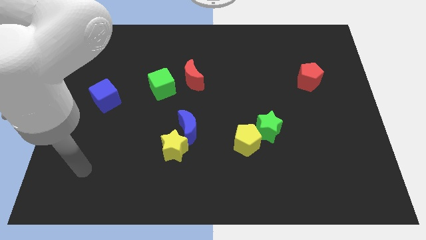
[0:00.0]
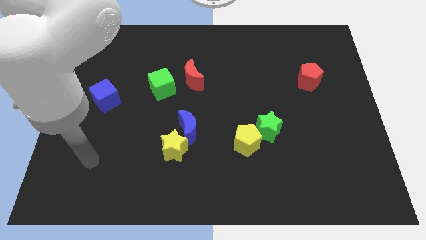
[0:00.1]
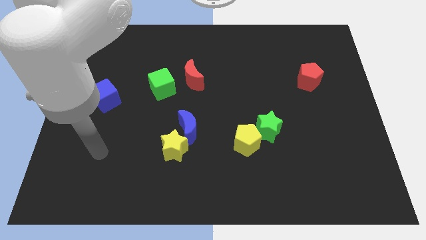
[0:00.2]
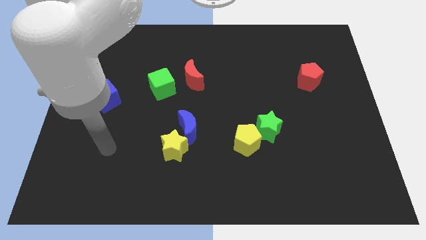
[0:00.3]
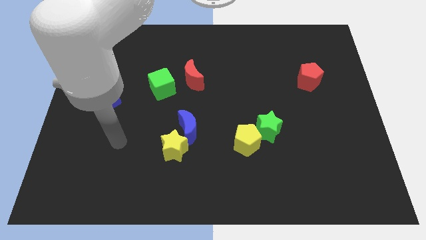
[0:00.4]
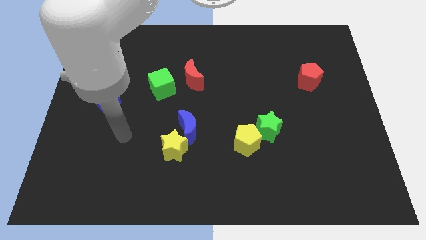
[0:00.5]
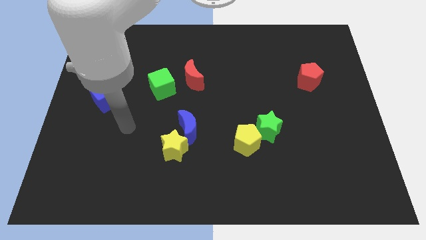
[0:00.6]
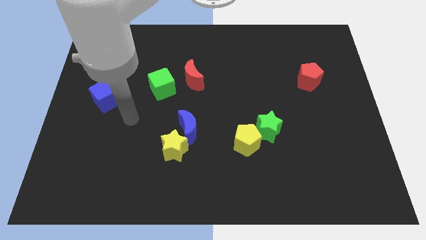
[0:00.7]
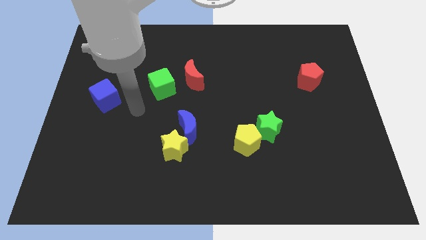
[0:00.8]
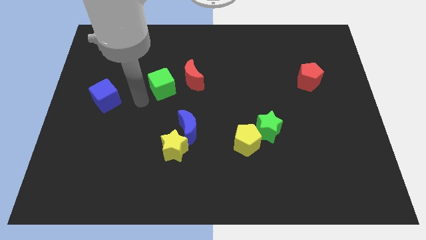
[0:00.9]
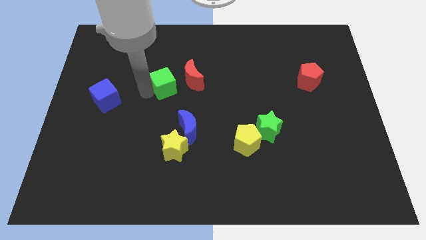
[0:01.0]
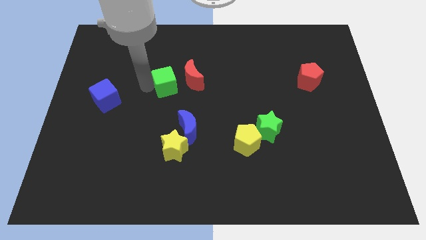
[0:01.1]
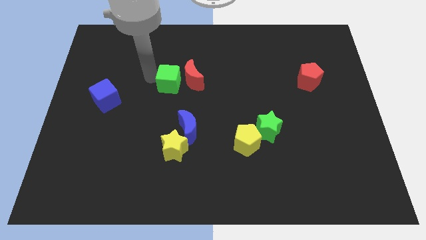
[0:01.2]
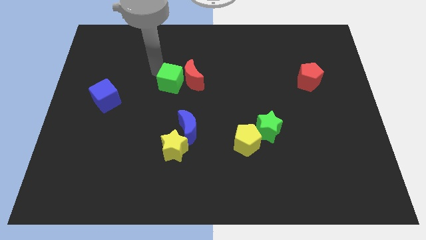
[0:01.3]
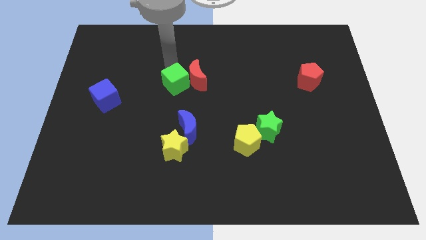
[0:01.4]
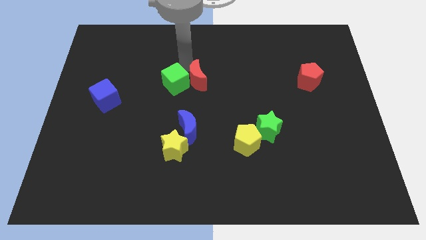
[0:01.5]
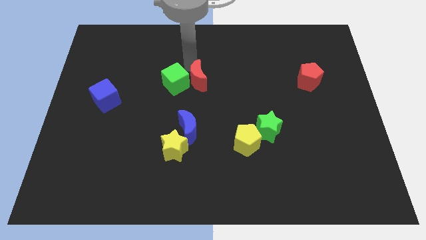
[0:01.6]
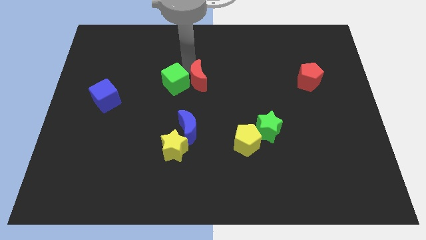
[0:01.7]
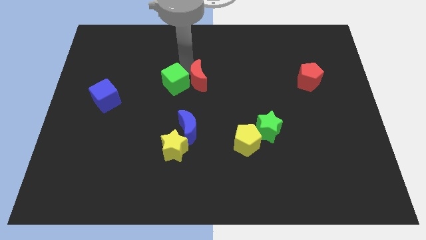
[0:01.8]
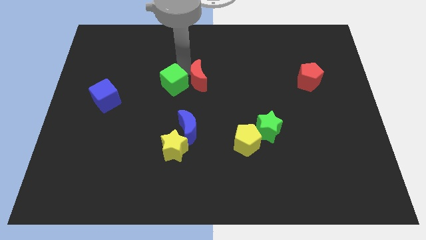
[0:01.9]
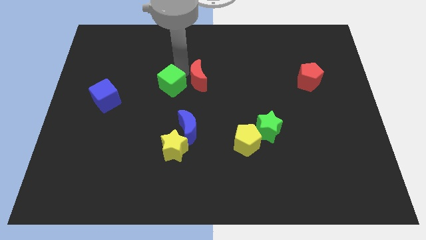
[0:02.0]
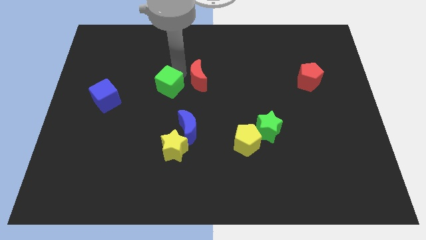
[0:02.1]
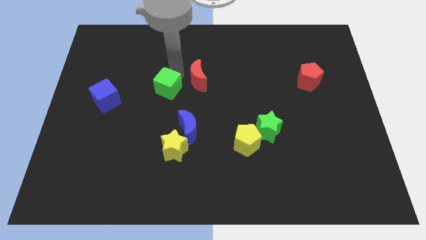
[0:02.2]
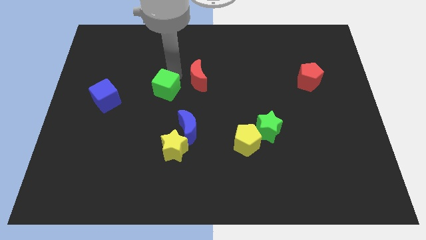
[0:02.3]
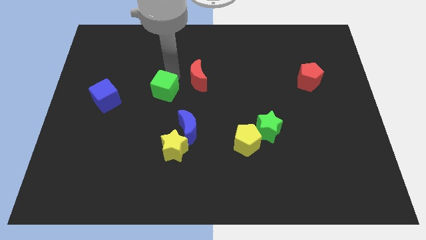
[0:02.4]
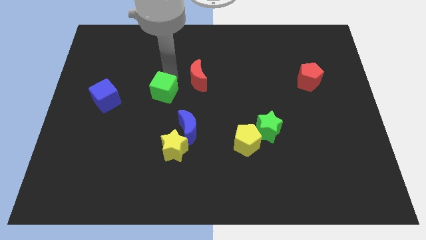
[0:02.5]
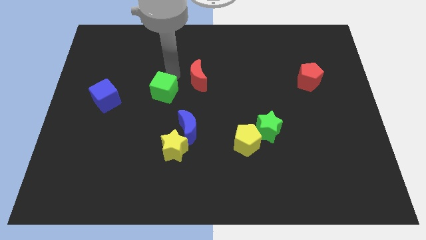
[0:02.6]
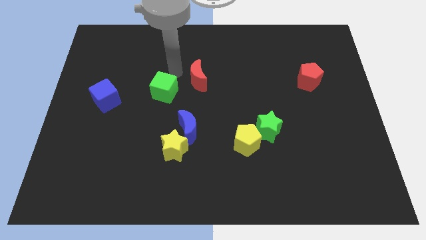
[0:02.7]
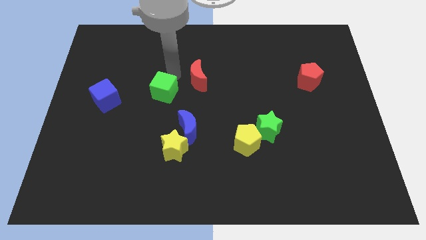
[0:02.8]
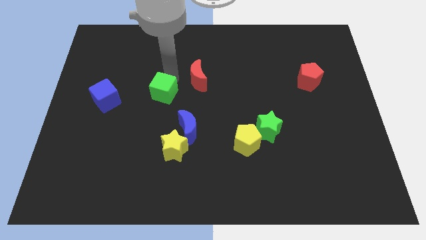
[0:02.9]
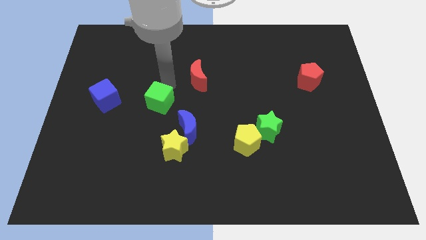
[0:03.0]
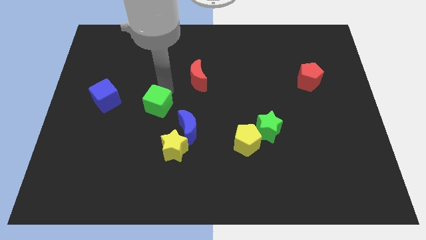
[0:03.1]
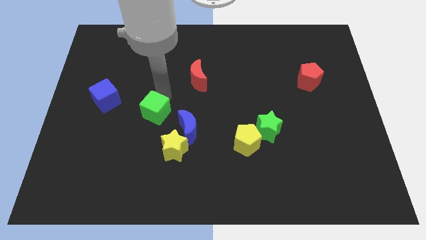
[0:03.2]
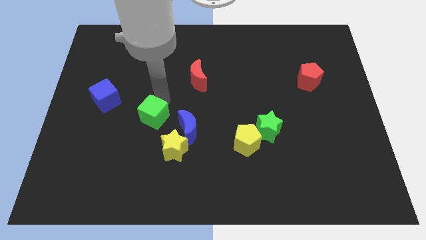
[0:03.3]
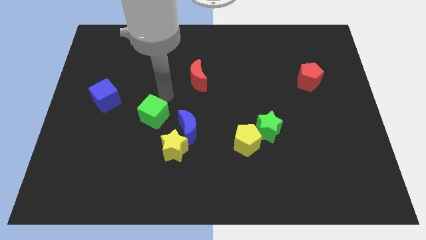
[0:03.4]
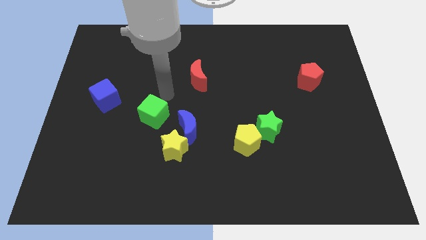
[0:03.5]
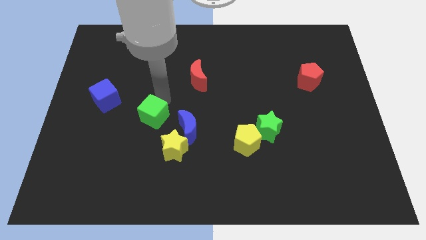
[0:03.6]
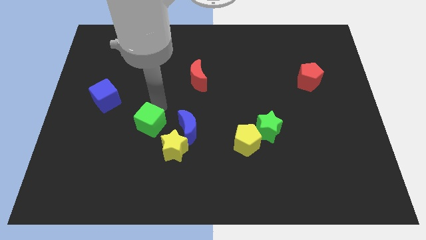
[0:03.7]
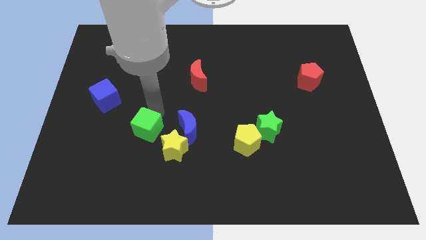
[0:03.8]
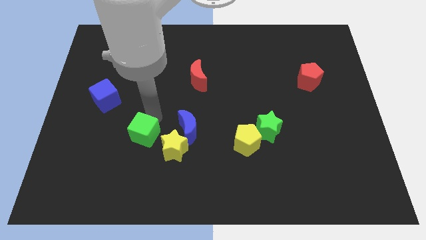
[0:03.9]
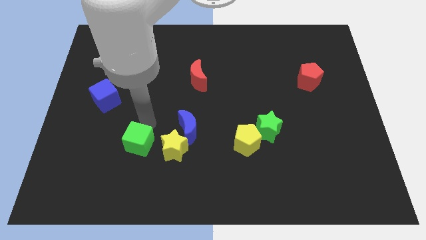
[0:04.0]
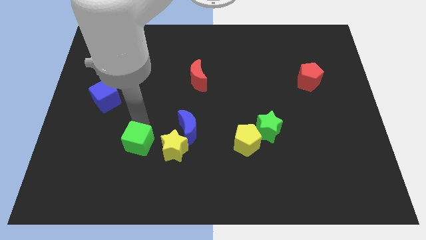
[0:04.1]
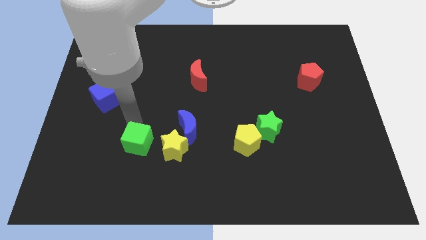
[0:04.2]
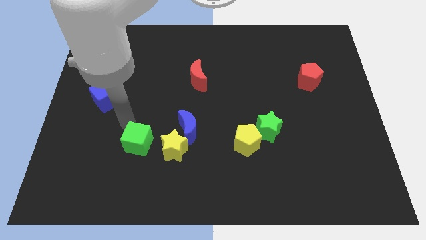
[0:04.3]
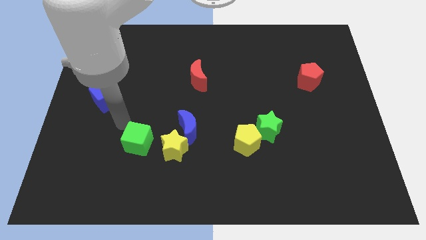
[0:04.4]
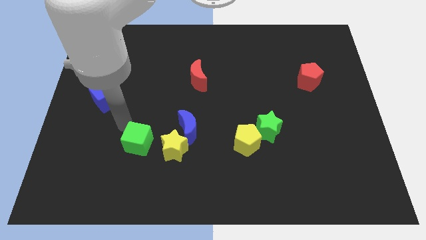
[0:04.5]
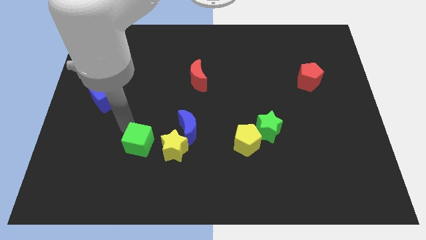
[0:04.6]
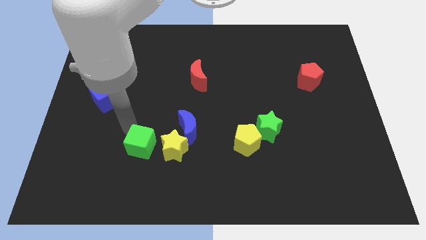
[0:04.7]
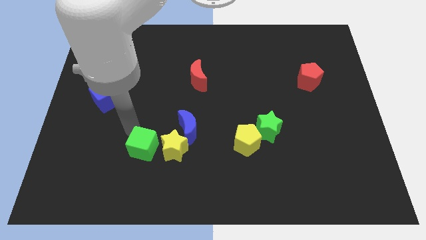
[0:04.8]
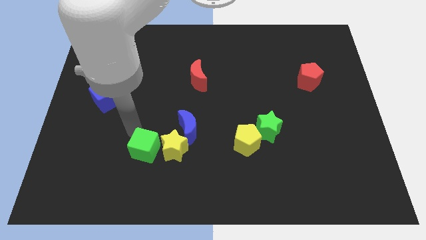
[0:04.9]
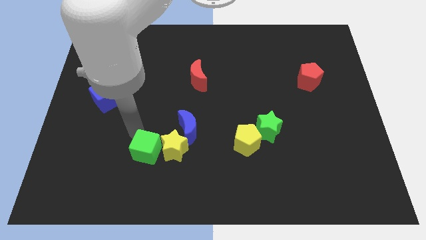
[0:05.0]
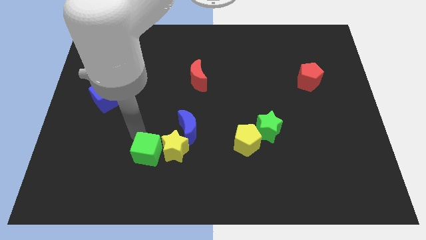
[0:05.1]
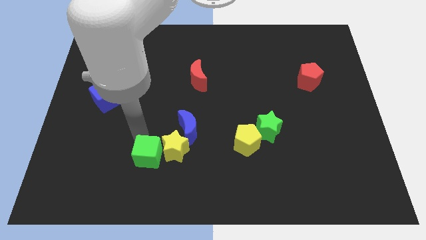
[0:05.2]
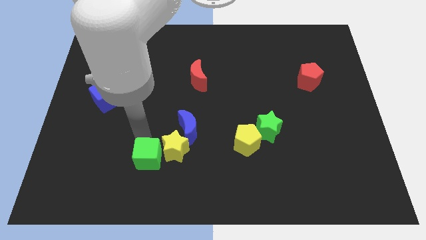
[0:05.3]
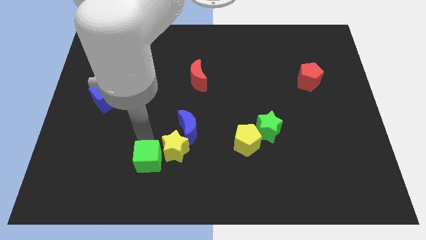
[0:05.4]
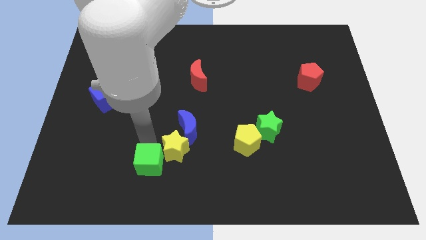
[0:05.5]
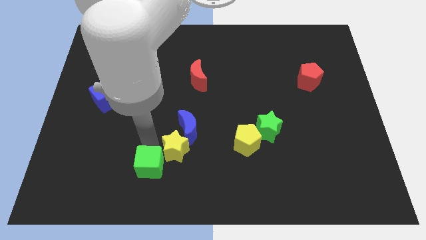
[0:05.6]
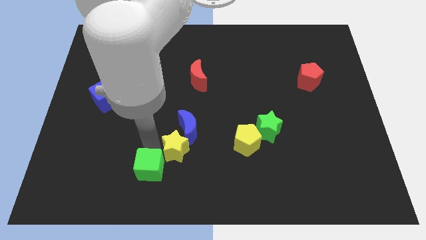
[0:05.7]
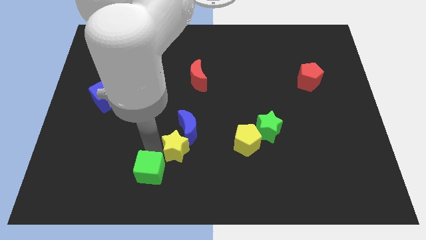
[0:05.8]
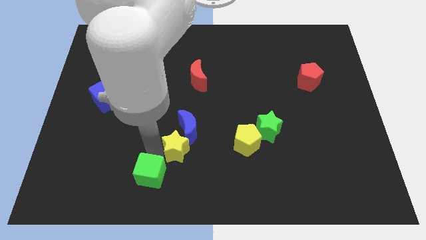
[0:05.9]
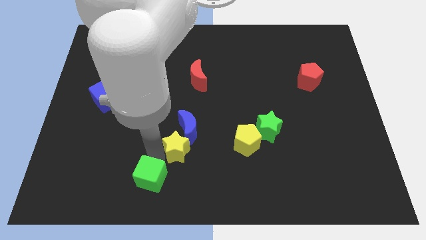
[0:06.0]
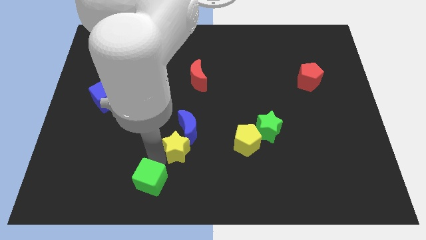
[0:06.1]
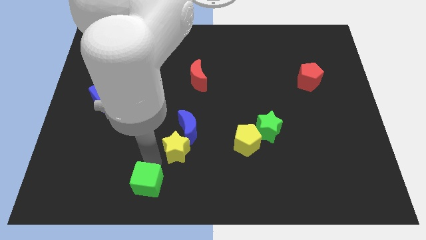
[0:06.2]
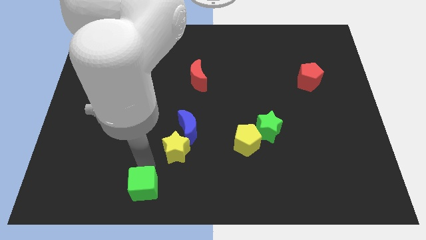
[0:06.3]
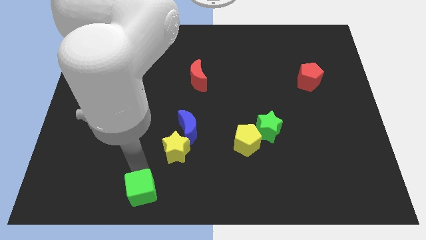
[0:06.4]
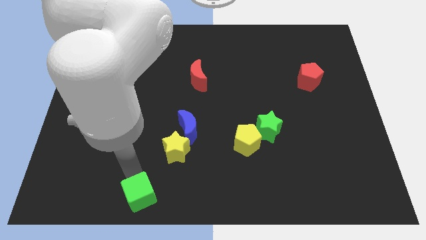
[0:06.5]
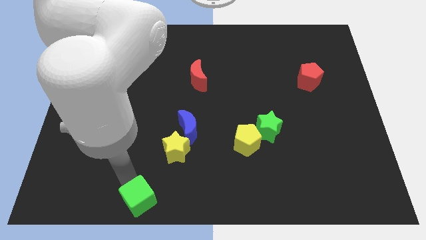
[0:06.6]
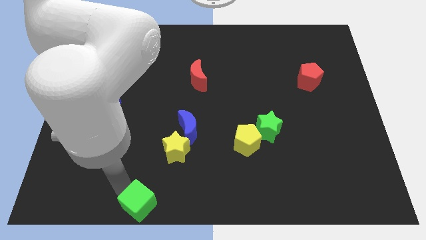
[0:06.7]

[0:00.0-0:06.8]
put the green cube to the bottom
